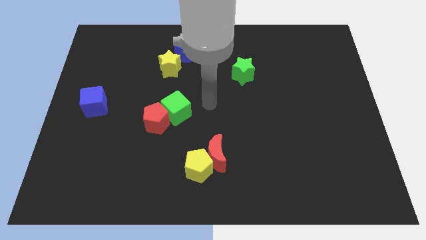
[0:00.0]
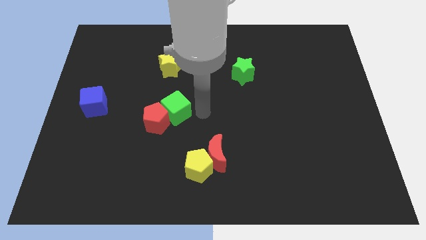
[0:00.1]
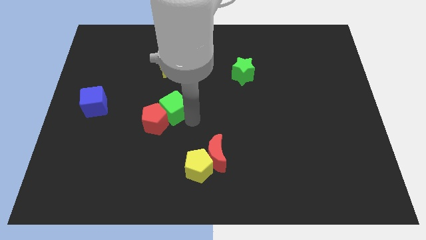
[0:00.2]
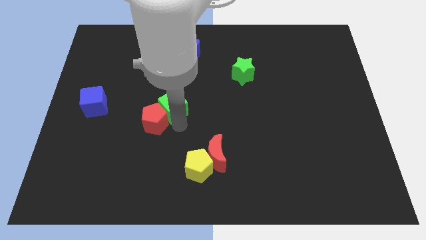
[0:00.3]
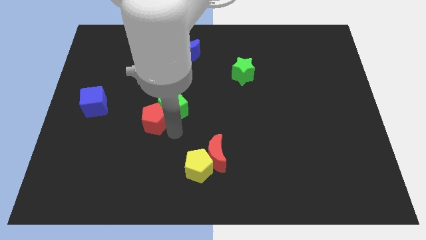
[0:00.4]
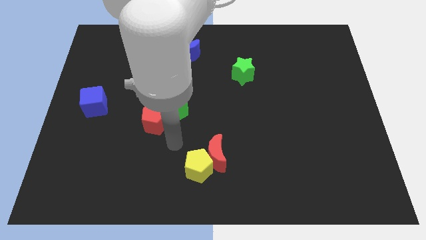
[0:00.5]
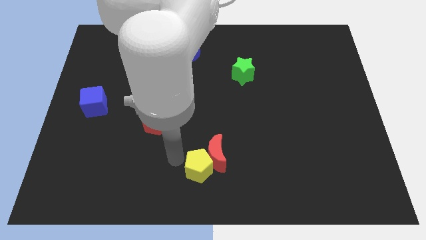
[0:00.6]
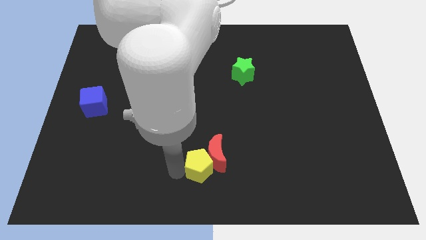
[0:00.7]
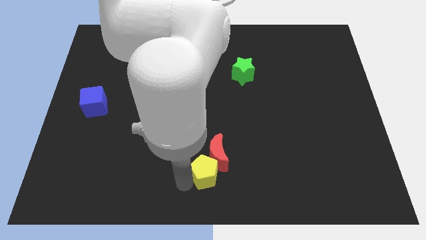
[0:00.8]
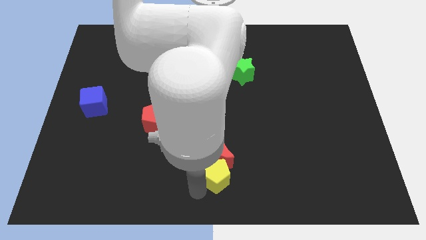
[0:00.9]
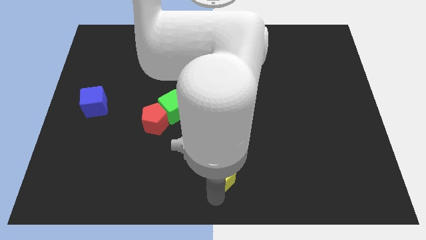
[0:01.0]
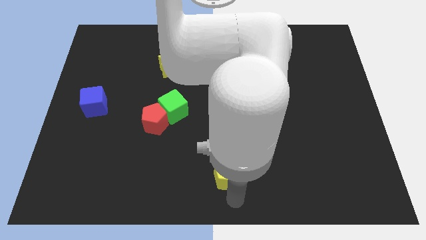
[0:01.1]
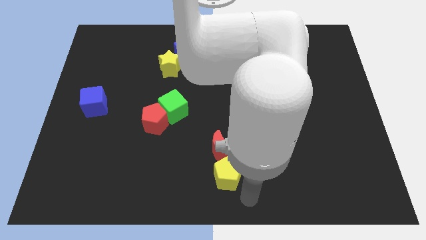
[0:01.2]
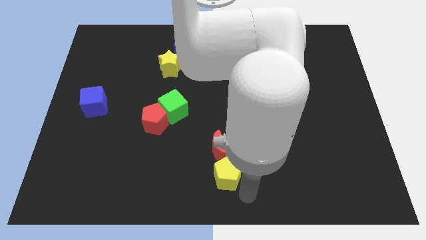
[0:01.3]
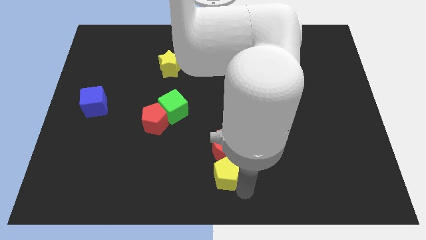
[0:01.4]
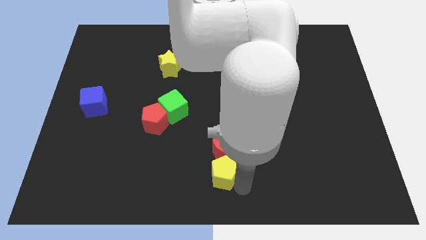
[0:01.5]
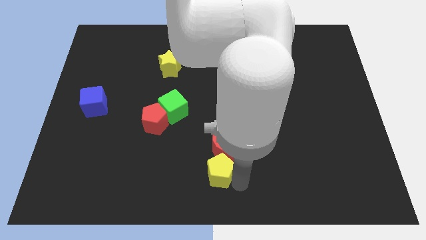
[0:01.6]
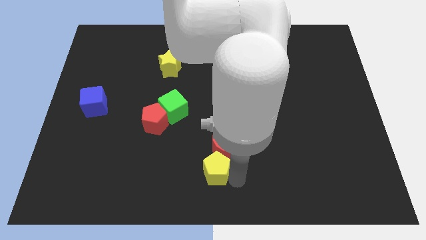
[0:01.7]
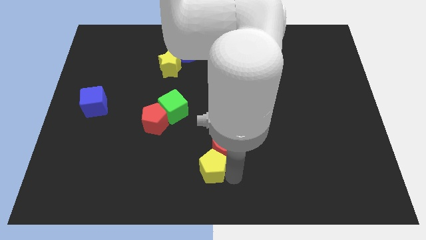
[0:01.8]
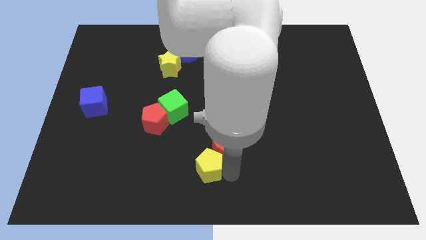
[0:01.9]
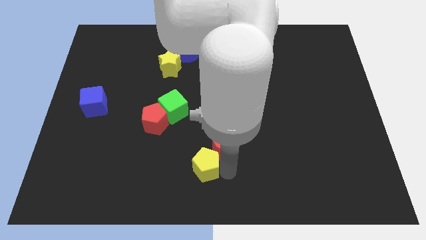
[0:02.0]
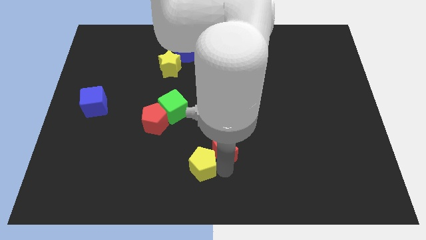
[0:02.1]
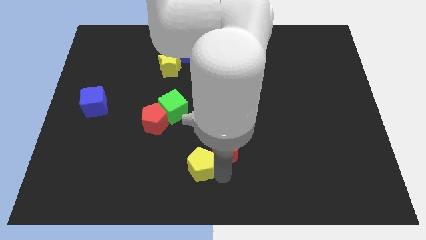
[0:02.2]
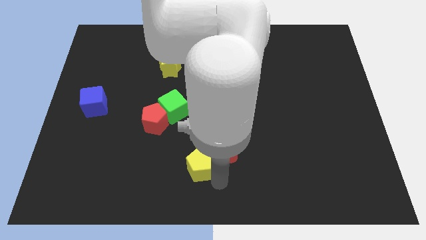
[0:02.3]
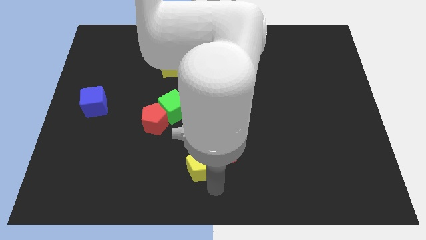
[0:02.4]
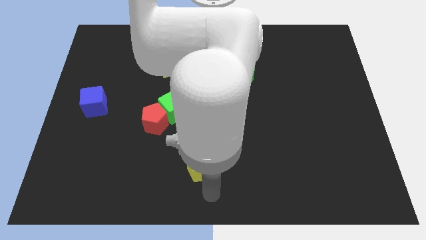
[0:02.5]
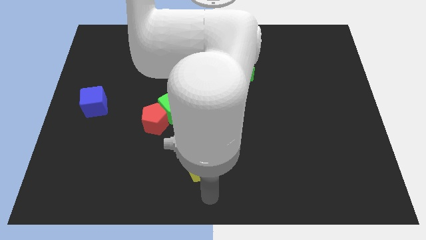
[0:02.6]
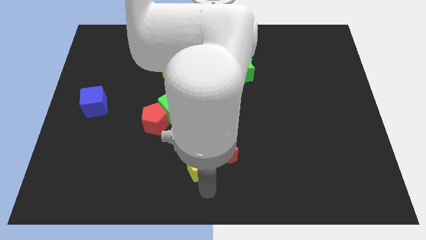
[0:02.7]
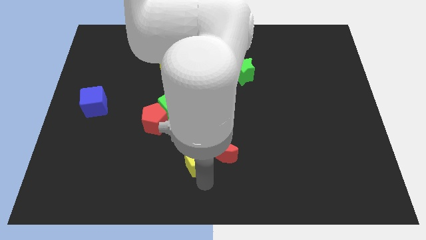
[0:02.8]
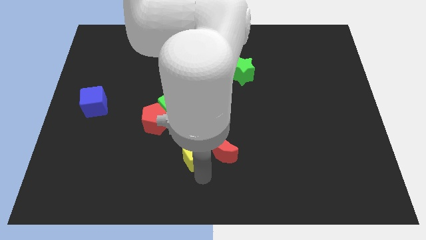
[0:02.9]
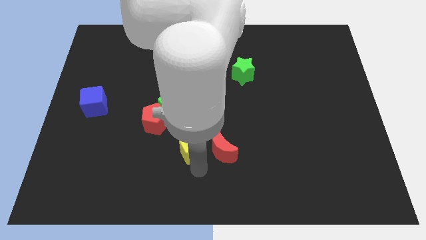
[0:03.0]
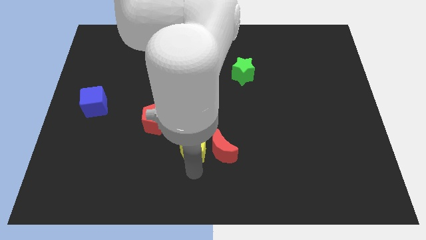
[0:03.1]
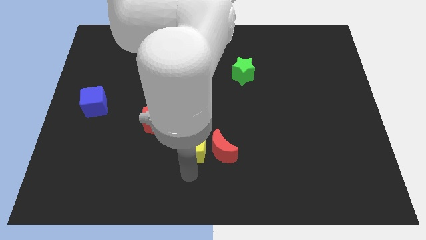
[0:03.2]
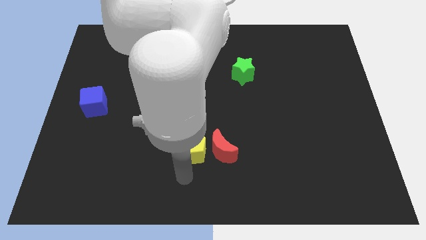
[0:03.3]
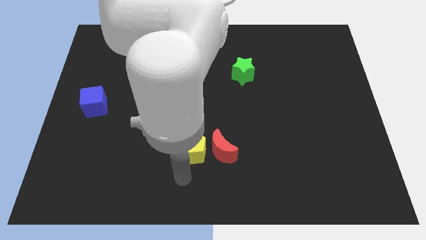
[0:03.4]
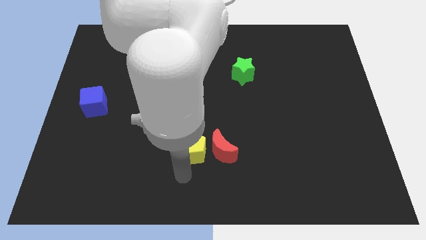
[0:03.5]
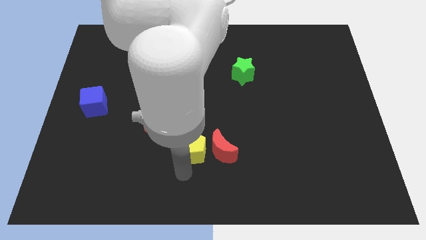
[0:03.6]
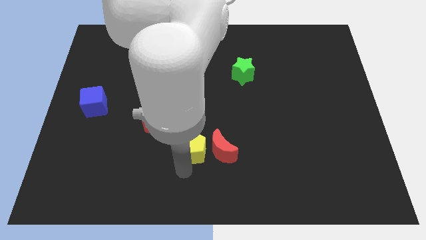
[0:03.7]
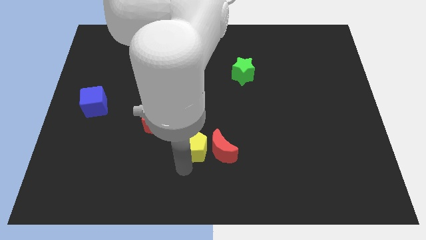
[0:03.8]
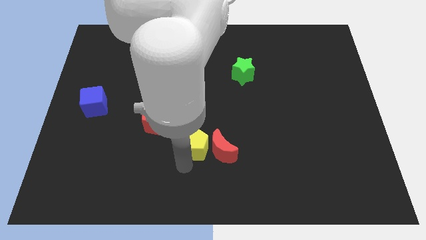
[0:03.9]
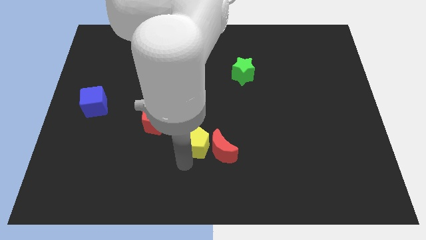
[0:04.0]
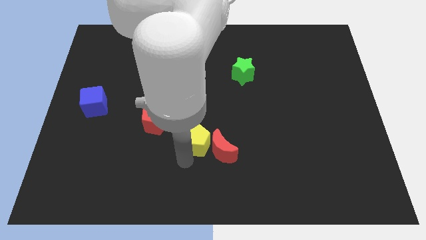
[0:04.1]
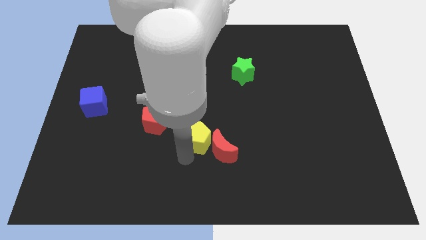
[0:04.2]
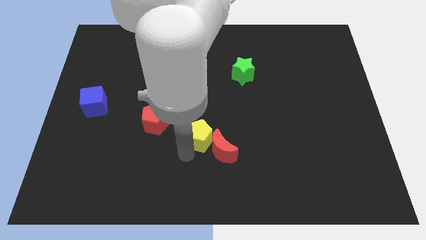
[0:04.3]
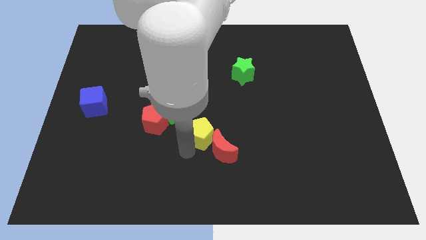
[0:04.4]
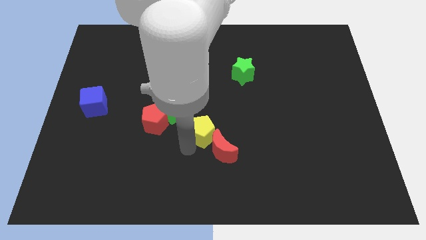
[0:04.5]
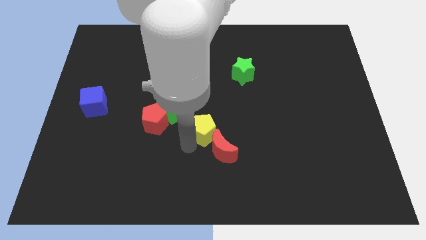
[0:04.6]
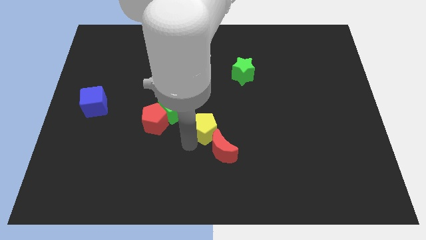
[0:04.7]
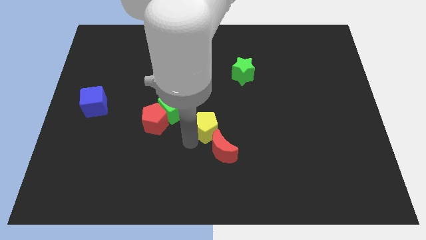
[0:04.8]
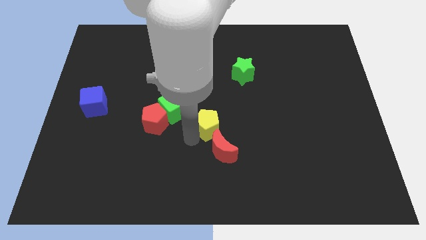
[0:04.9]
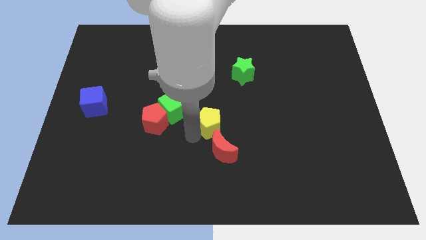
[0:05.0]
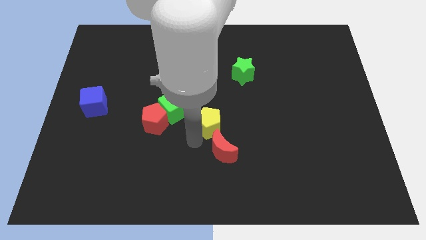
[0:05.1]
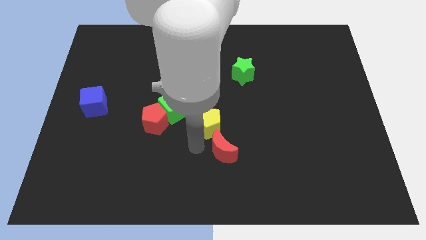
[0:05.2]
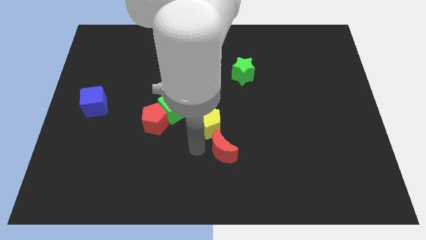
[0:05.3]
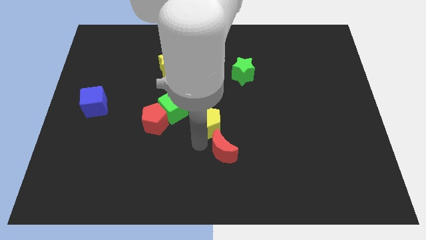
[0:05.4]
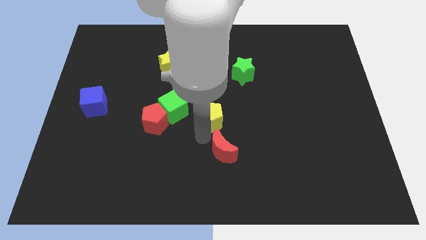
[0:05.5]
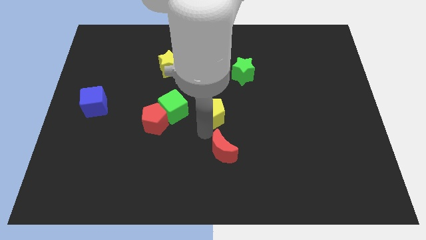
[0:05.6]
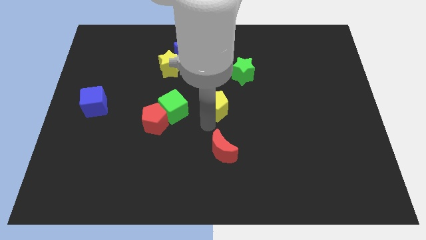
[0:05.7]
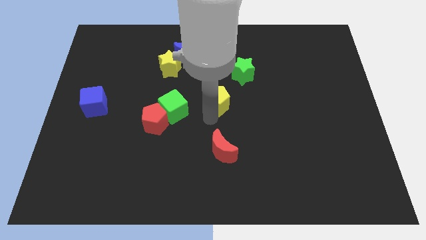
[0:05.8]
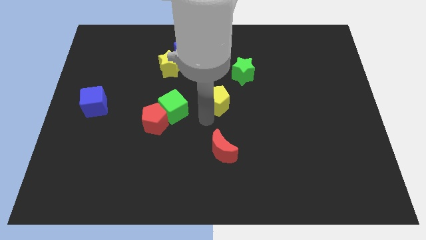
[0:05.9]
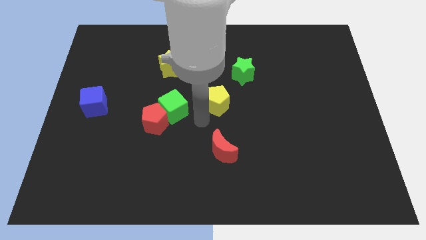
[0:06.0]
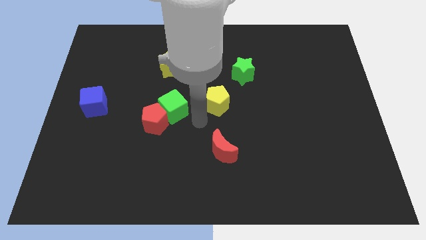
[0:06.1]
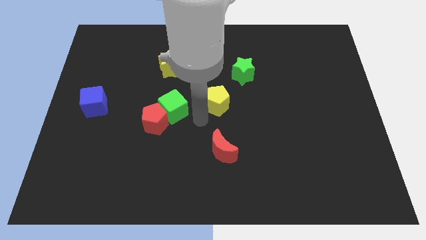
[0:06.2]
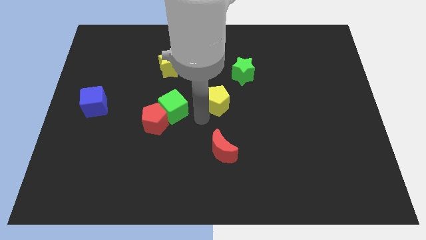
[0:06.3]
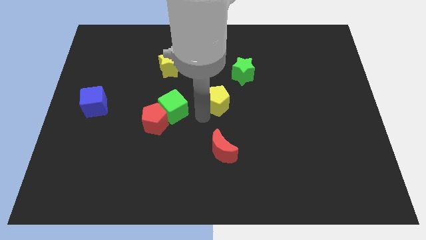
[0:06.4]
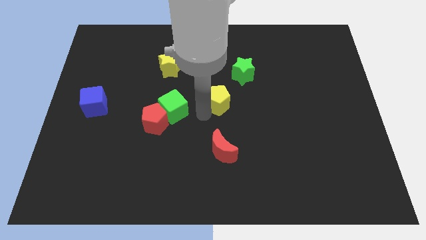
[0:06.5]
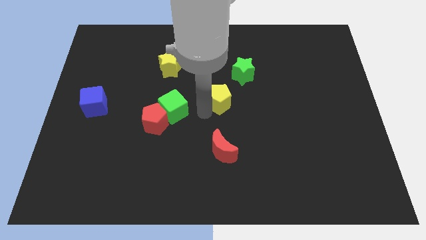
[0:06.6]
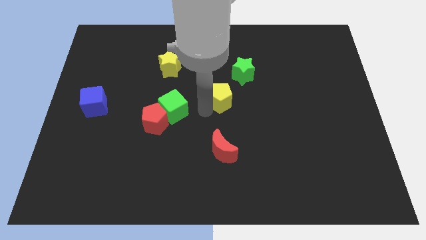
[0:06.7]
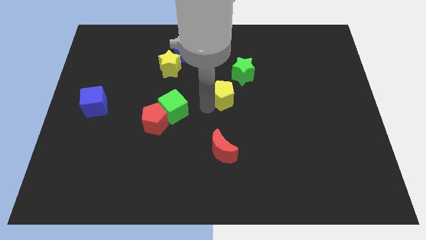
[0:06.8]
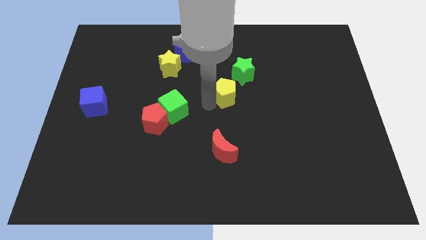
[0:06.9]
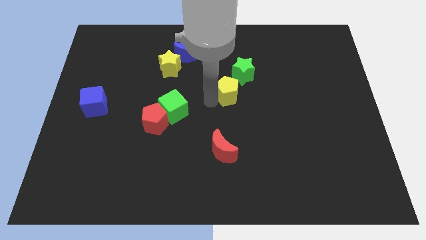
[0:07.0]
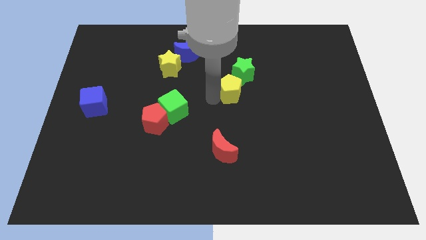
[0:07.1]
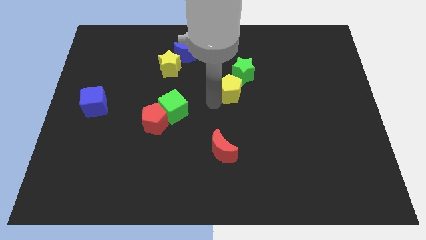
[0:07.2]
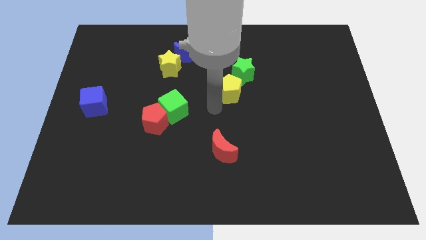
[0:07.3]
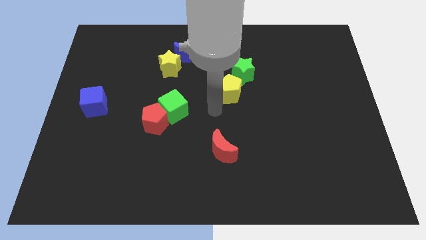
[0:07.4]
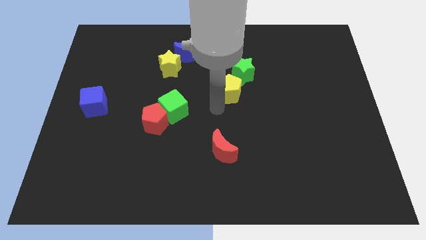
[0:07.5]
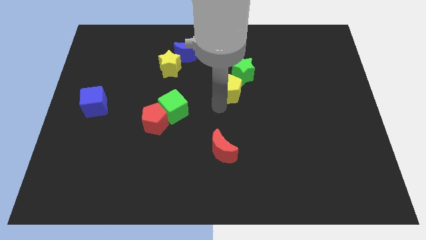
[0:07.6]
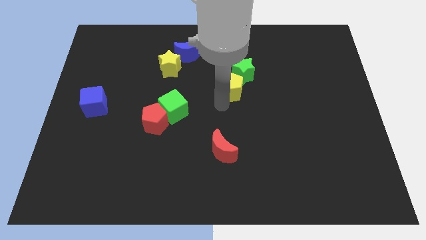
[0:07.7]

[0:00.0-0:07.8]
slide the yellow pentagon close to the green star
